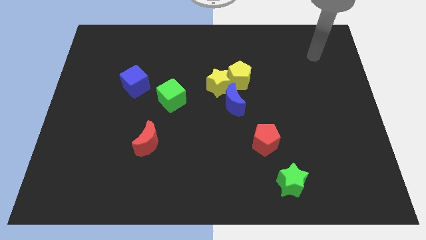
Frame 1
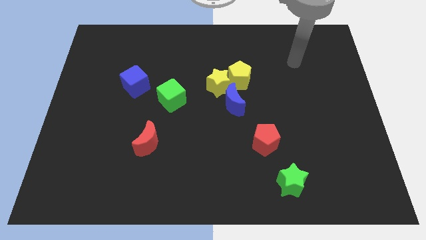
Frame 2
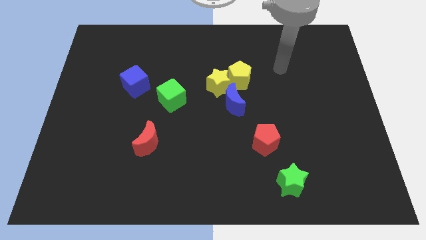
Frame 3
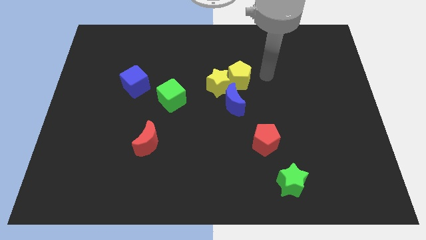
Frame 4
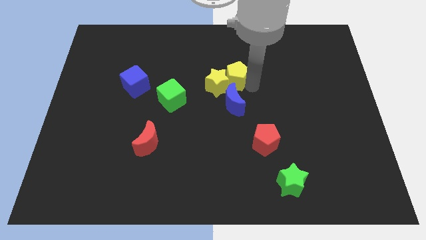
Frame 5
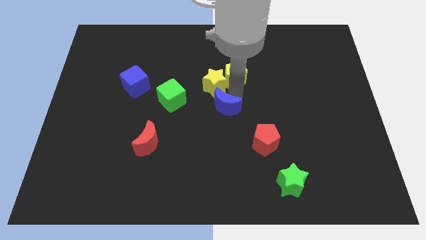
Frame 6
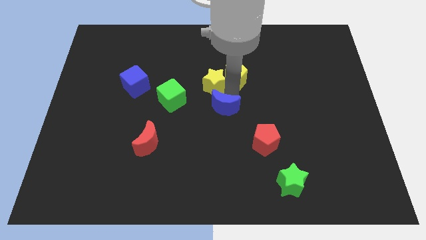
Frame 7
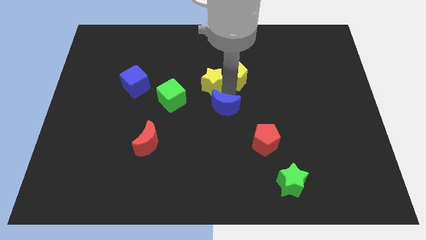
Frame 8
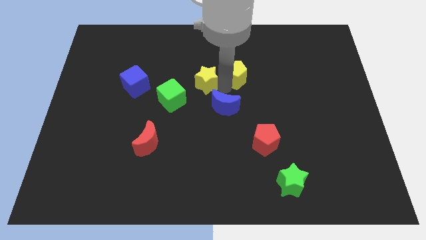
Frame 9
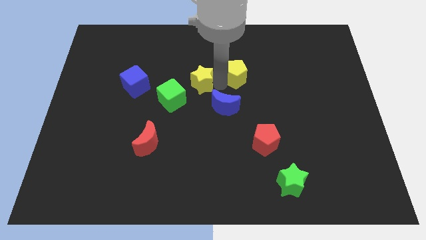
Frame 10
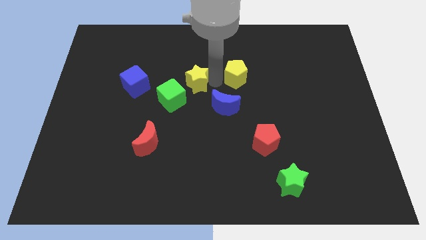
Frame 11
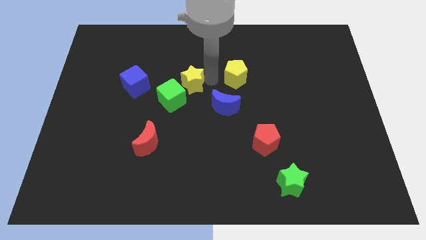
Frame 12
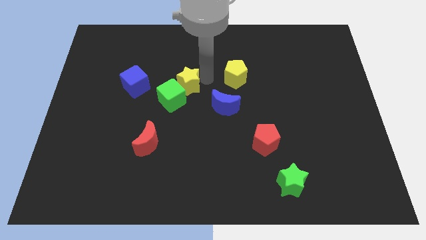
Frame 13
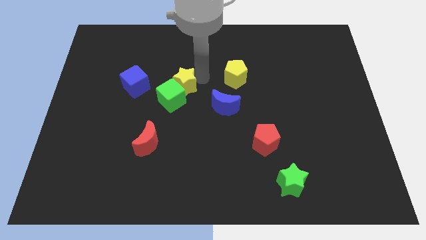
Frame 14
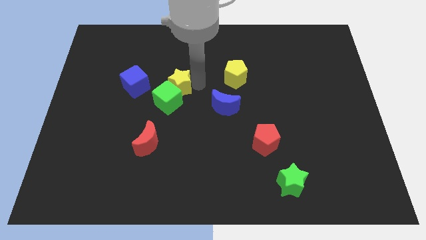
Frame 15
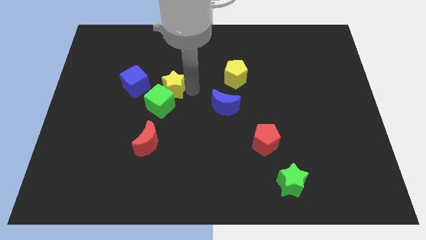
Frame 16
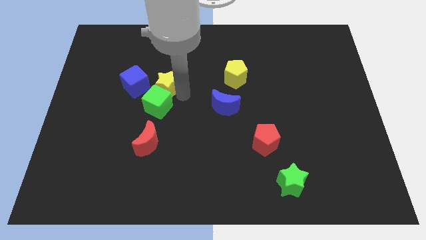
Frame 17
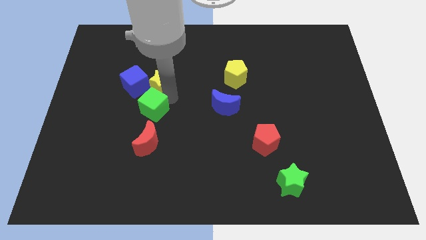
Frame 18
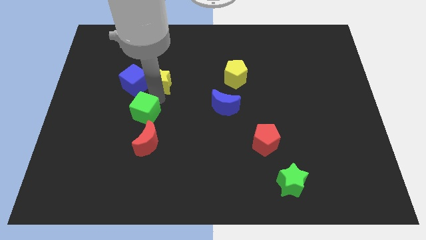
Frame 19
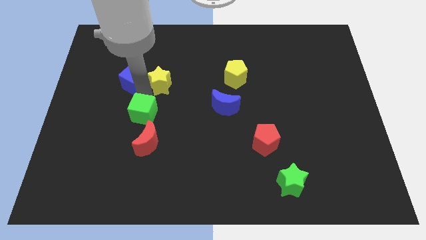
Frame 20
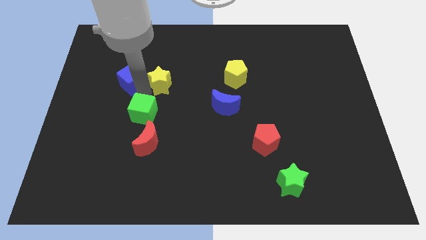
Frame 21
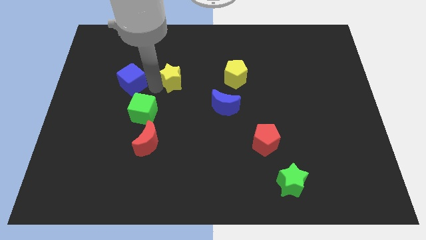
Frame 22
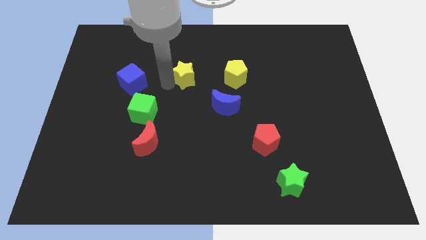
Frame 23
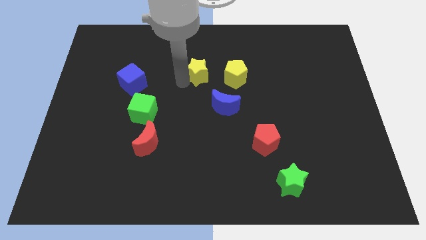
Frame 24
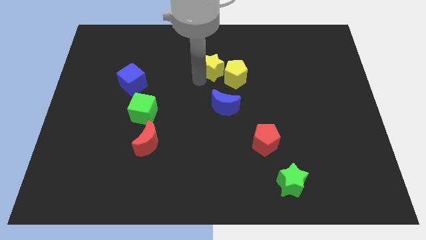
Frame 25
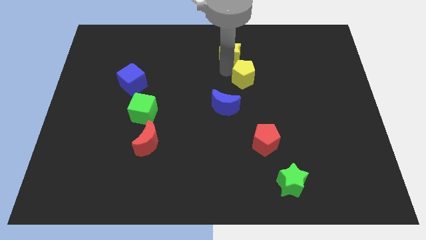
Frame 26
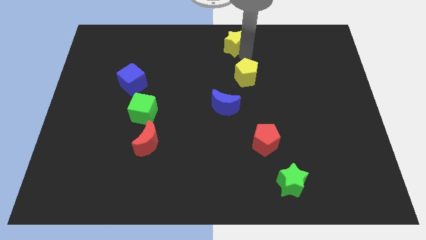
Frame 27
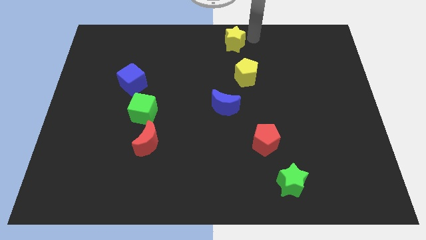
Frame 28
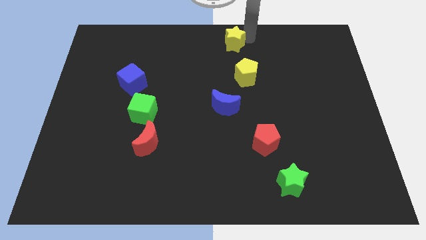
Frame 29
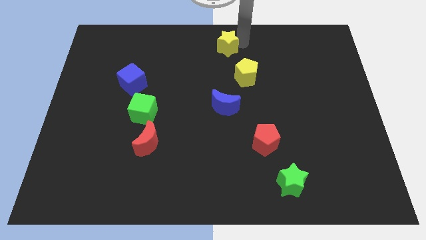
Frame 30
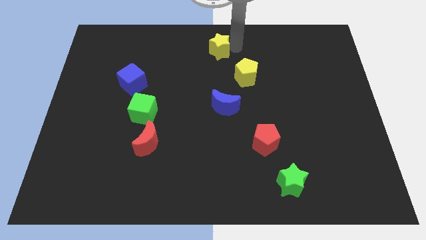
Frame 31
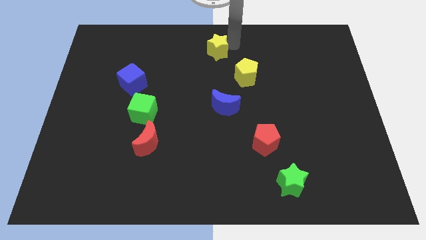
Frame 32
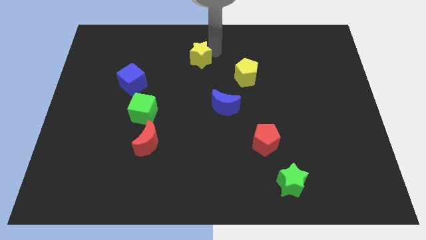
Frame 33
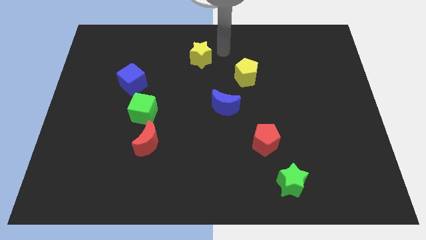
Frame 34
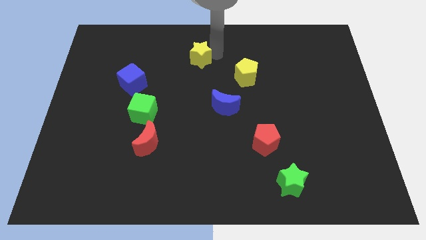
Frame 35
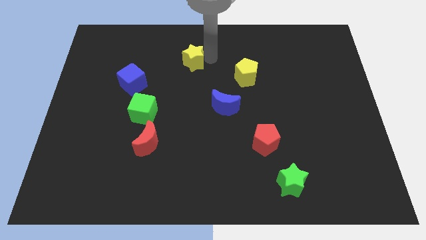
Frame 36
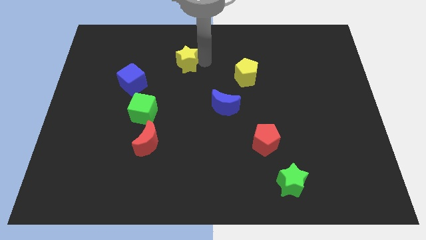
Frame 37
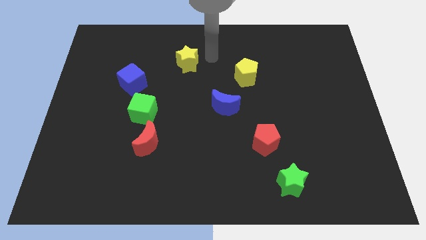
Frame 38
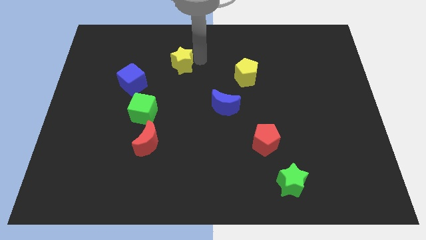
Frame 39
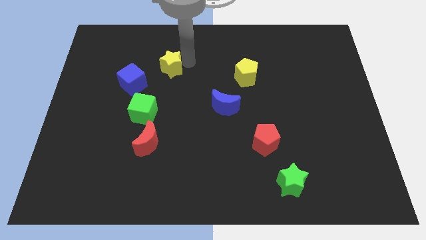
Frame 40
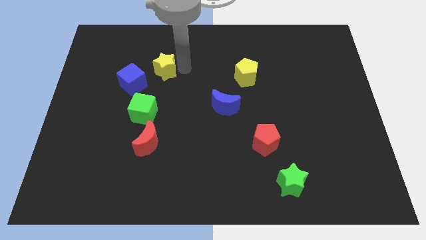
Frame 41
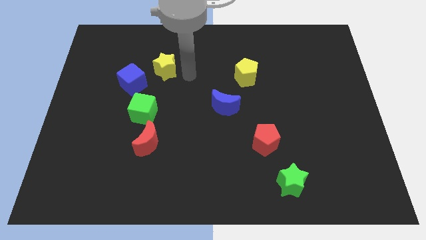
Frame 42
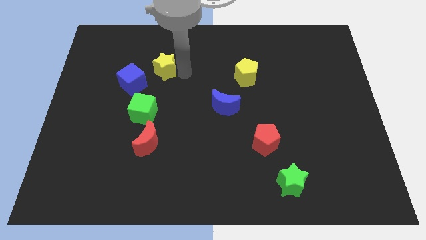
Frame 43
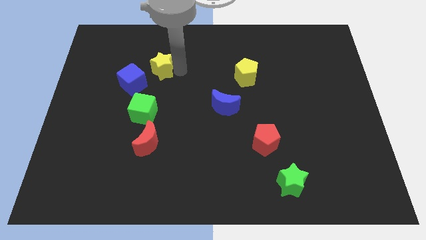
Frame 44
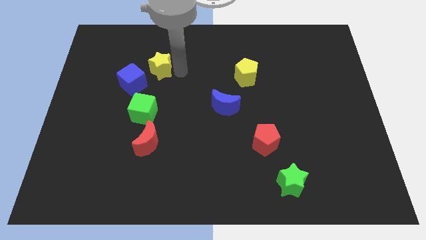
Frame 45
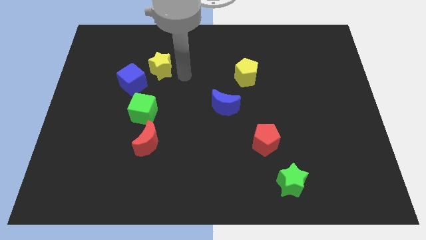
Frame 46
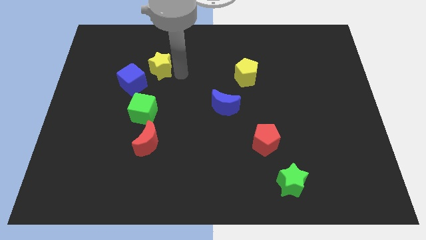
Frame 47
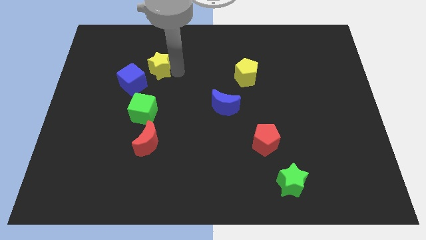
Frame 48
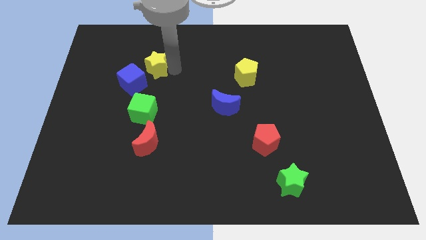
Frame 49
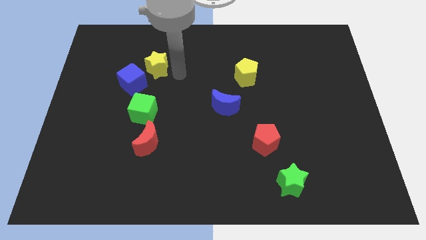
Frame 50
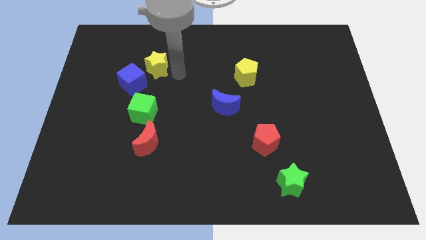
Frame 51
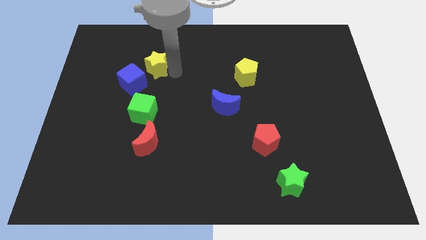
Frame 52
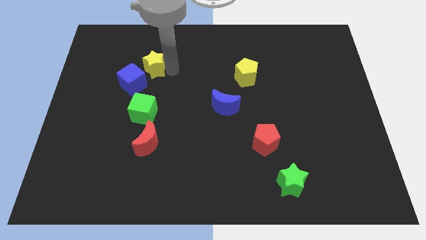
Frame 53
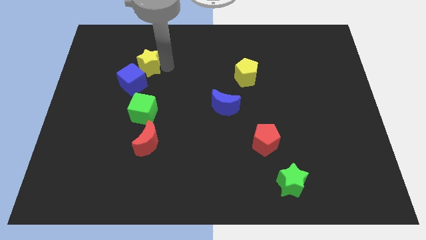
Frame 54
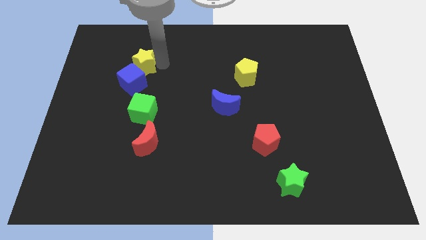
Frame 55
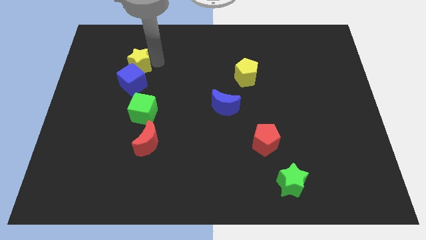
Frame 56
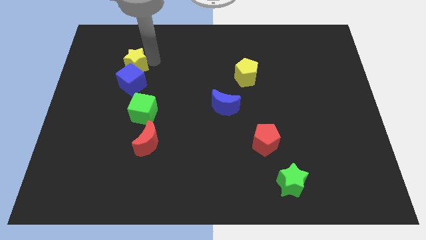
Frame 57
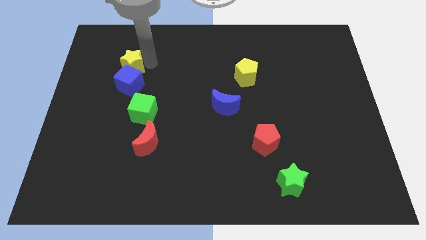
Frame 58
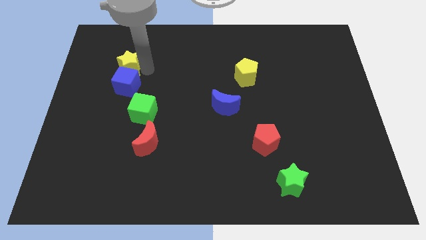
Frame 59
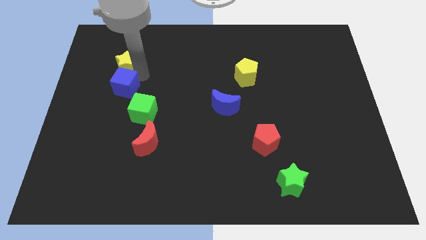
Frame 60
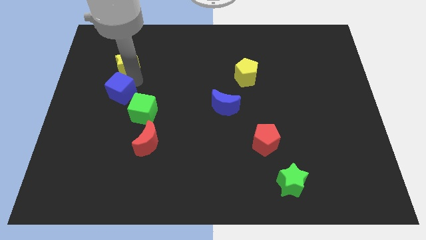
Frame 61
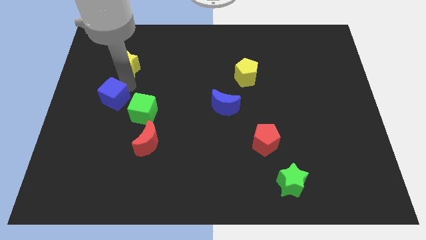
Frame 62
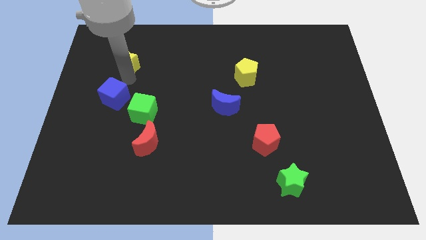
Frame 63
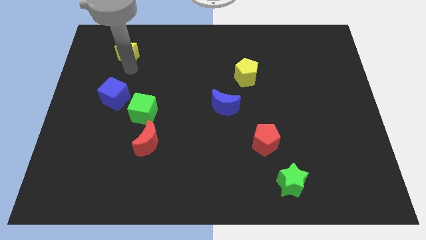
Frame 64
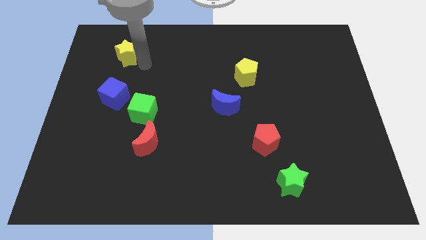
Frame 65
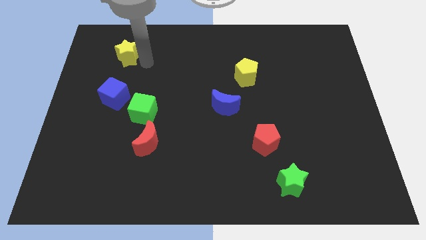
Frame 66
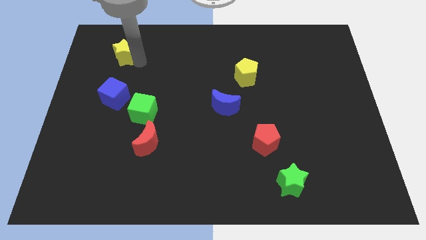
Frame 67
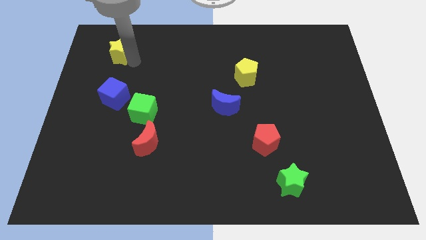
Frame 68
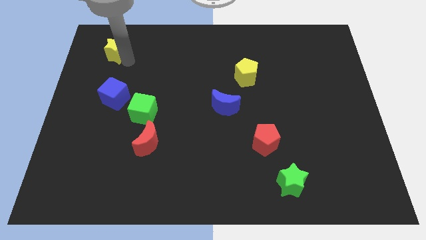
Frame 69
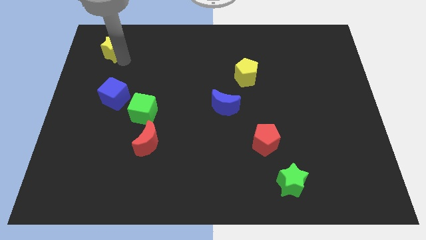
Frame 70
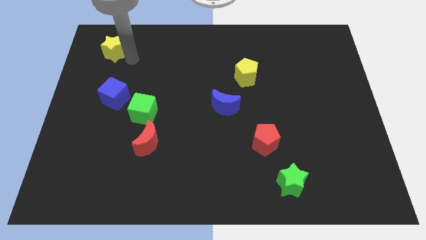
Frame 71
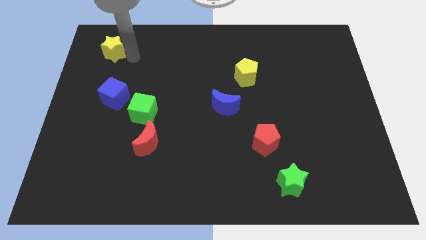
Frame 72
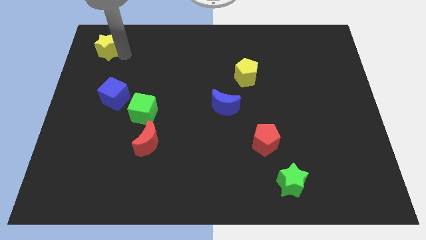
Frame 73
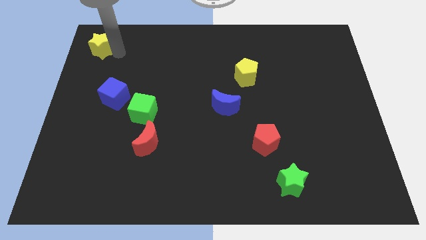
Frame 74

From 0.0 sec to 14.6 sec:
slide the yellow star to the top left of the board
